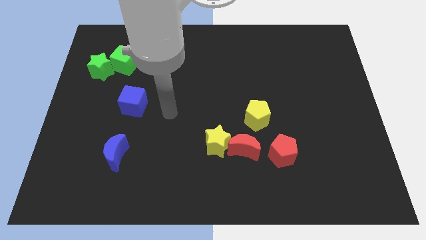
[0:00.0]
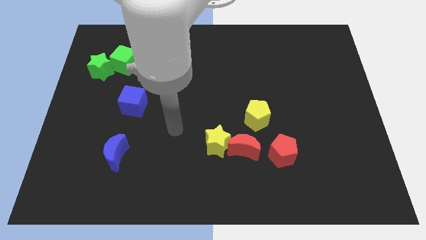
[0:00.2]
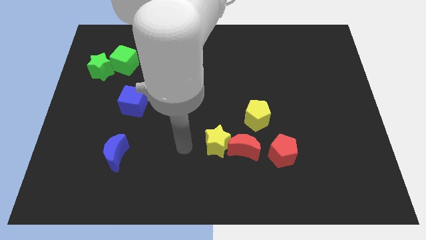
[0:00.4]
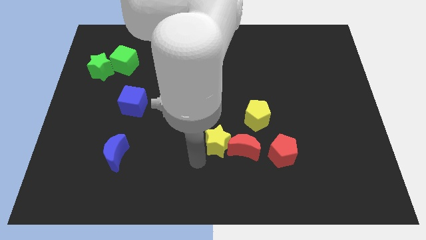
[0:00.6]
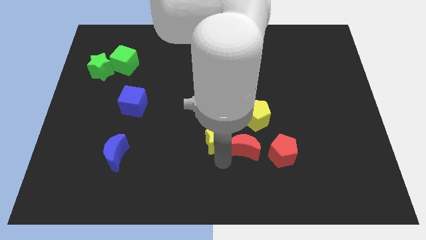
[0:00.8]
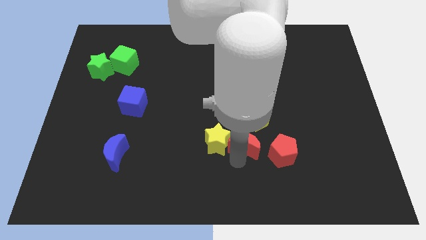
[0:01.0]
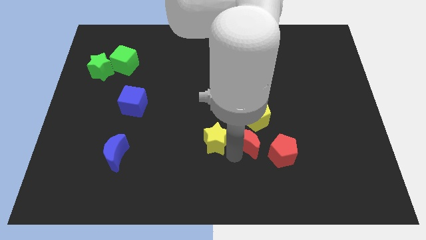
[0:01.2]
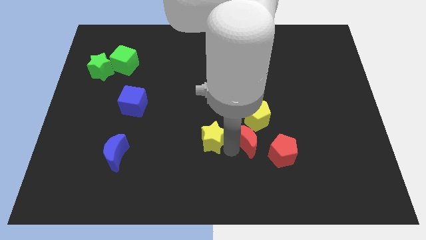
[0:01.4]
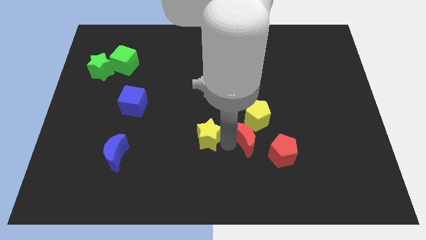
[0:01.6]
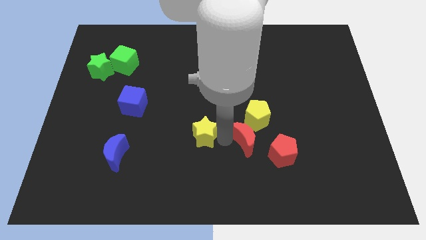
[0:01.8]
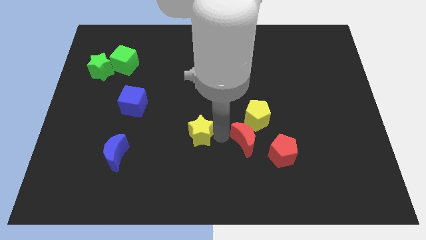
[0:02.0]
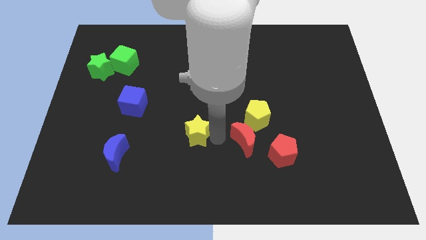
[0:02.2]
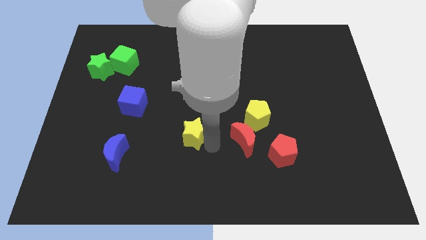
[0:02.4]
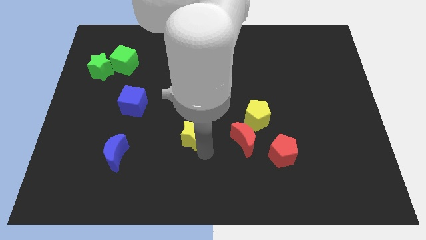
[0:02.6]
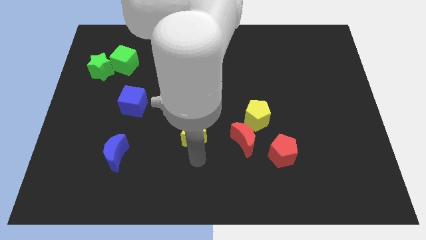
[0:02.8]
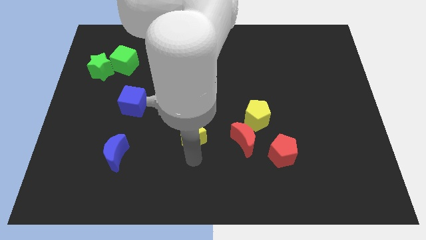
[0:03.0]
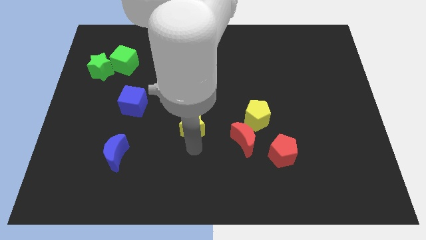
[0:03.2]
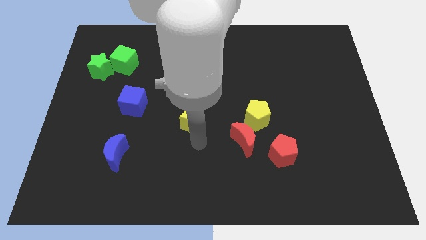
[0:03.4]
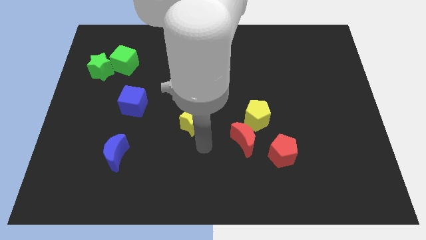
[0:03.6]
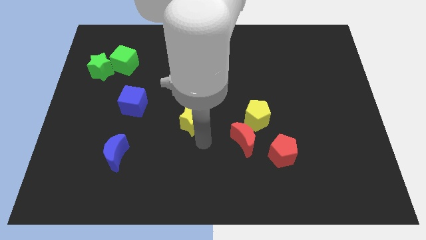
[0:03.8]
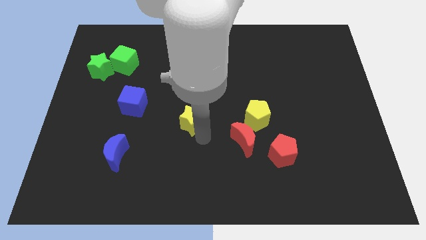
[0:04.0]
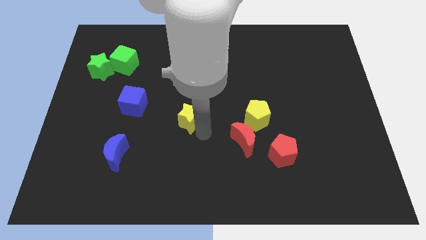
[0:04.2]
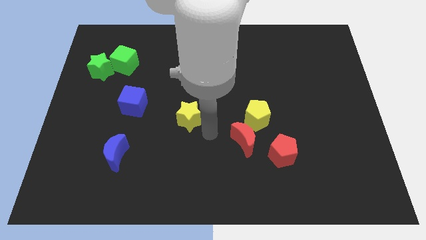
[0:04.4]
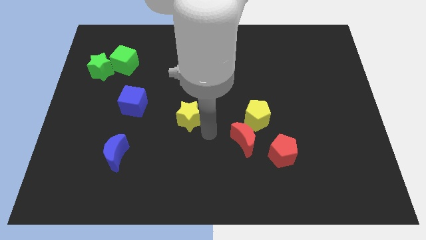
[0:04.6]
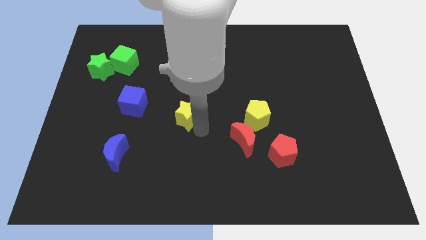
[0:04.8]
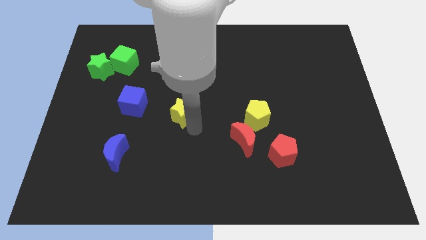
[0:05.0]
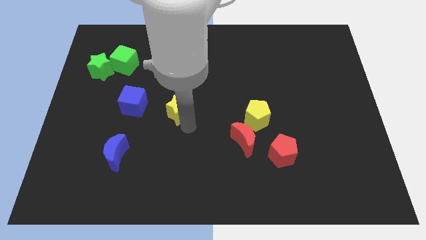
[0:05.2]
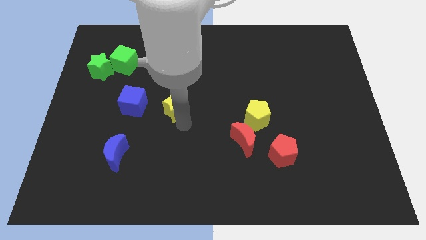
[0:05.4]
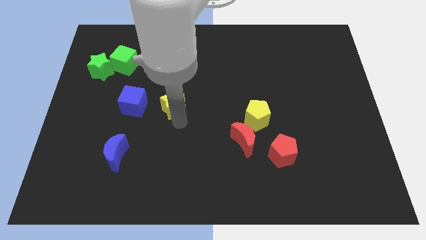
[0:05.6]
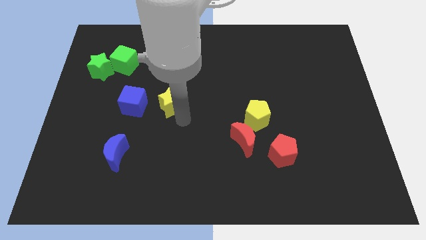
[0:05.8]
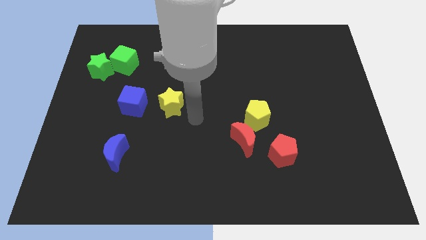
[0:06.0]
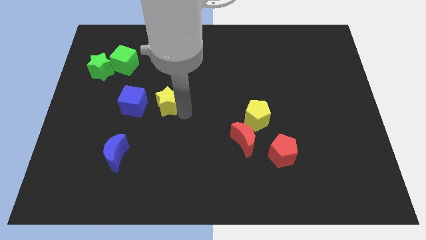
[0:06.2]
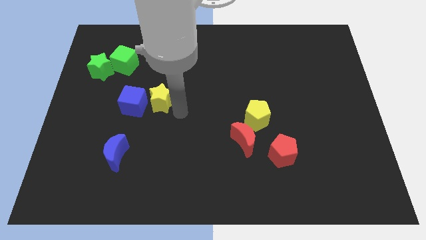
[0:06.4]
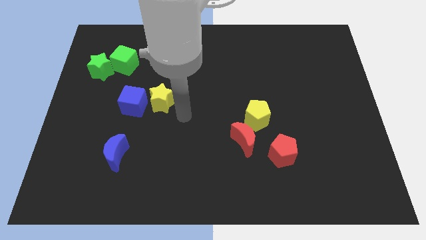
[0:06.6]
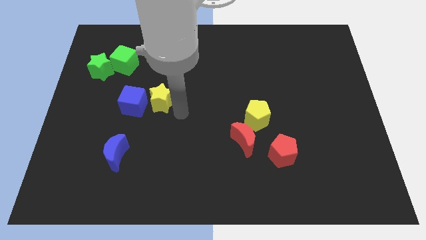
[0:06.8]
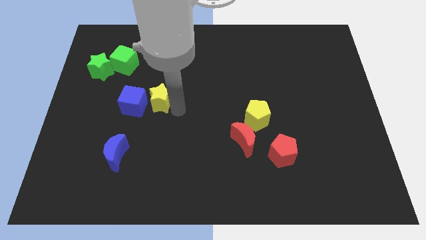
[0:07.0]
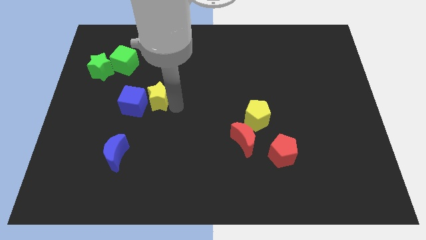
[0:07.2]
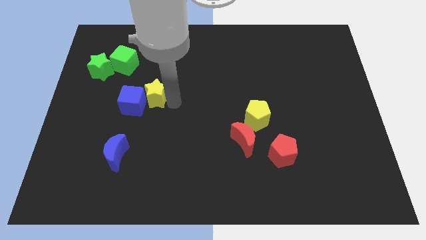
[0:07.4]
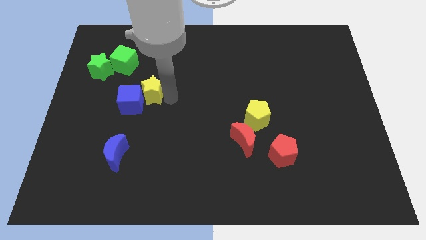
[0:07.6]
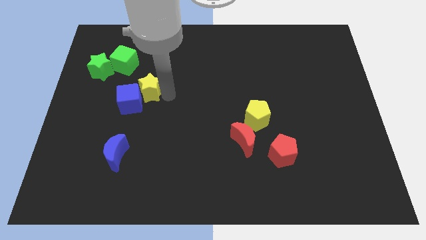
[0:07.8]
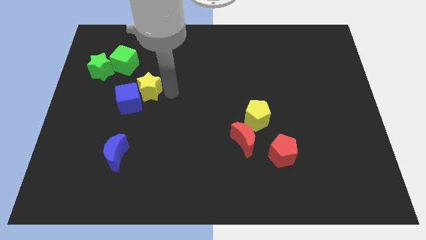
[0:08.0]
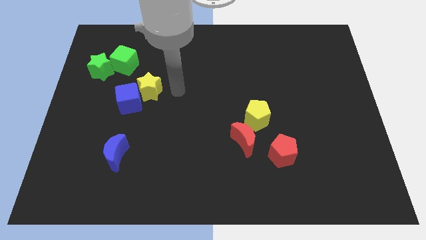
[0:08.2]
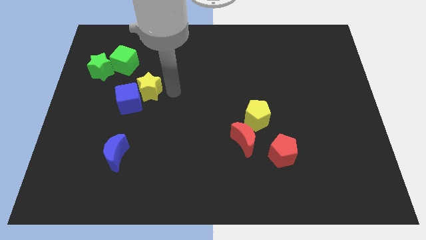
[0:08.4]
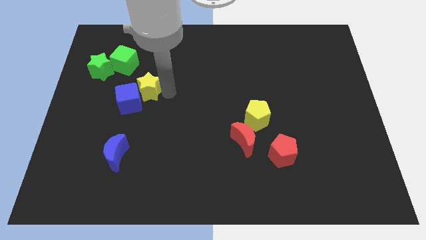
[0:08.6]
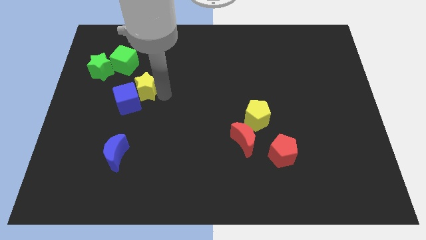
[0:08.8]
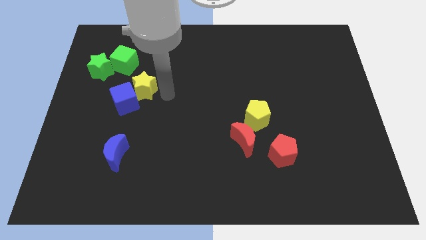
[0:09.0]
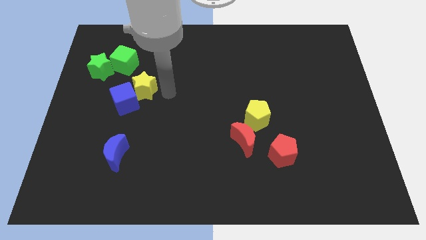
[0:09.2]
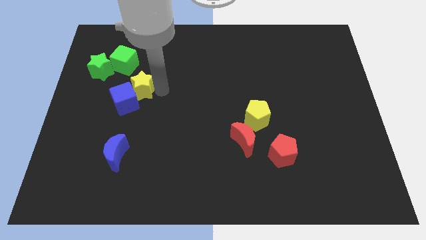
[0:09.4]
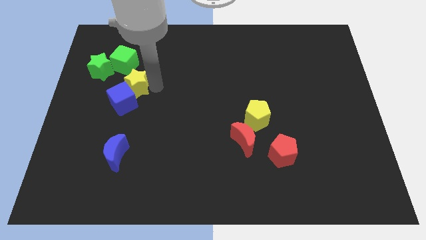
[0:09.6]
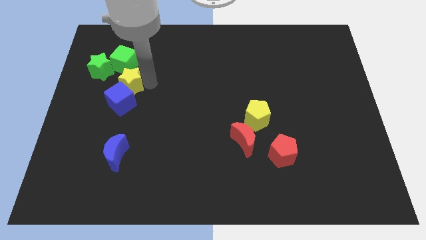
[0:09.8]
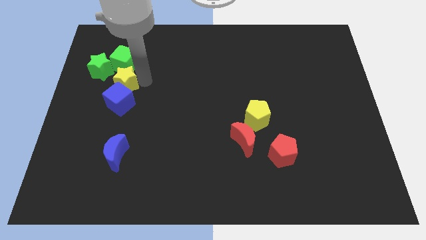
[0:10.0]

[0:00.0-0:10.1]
move the yellow star diagonally up and to the left of the blue cube

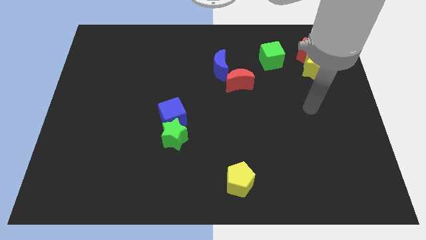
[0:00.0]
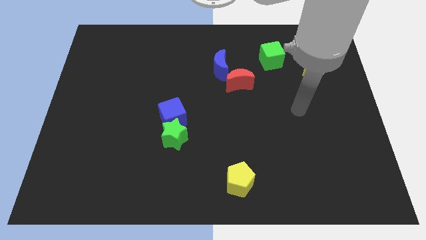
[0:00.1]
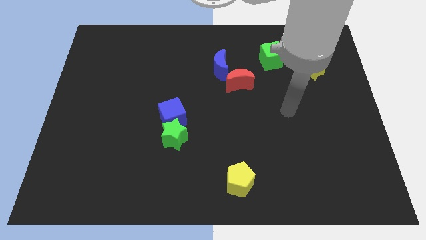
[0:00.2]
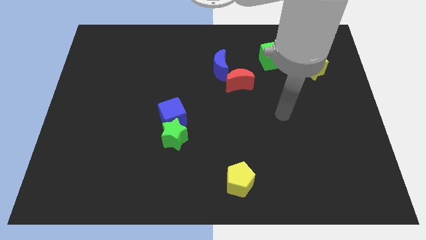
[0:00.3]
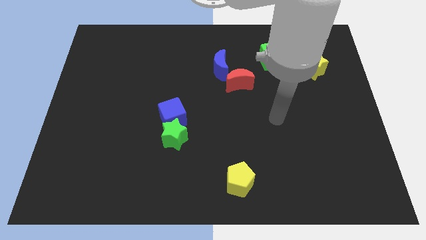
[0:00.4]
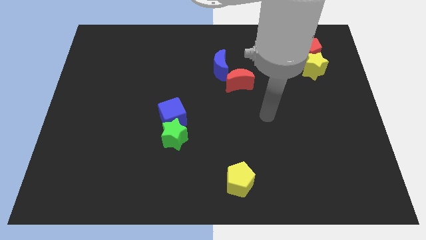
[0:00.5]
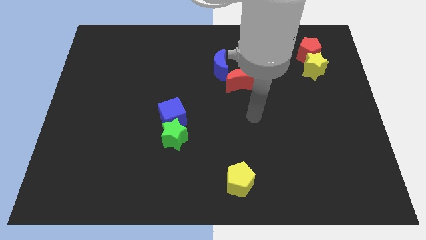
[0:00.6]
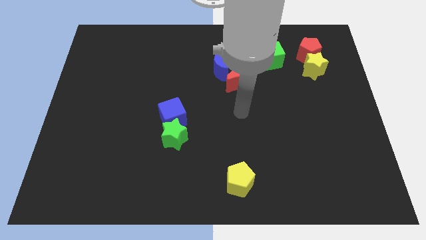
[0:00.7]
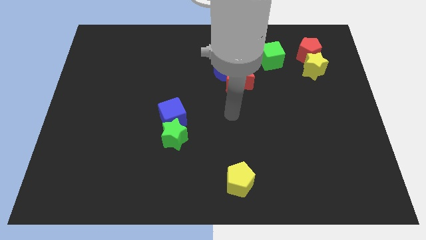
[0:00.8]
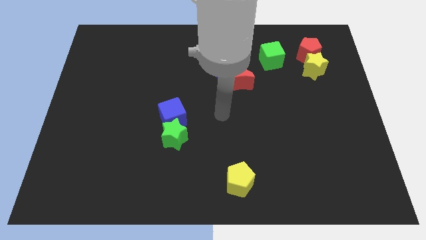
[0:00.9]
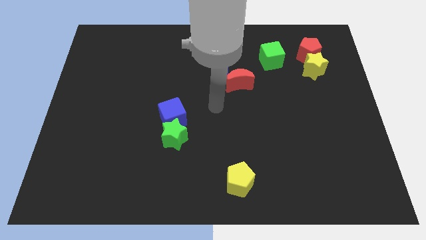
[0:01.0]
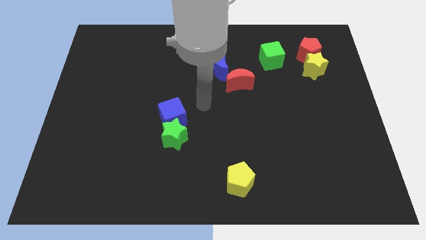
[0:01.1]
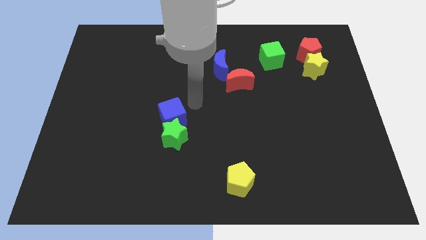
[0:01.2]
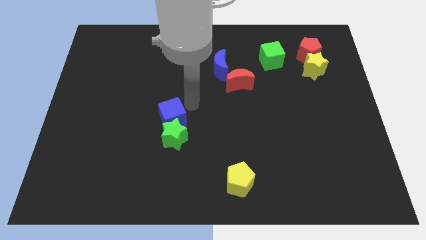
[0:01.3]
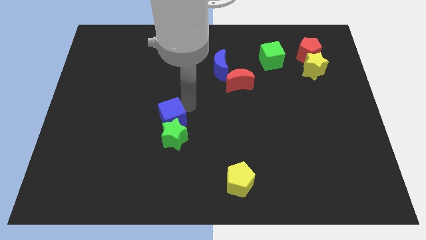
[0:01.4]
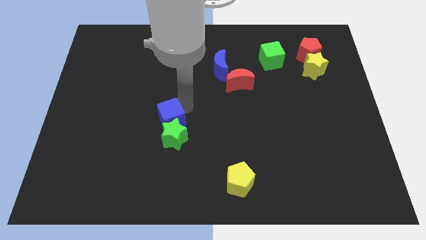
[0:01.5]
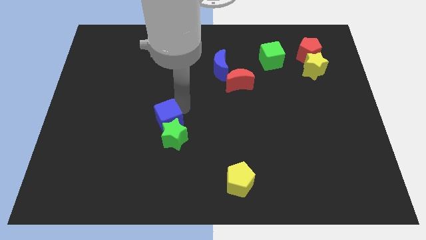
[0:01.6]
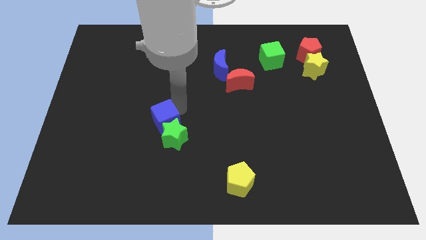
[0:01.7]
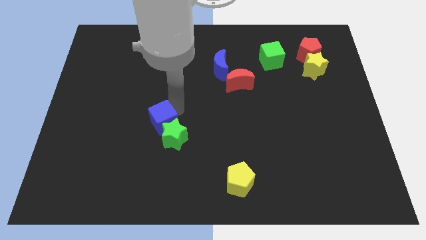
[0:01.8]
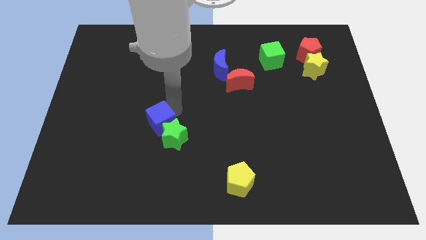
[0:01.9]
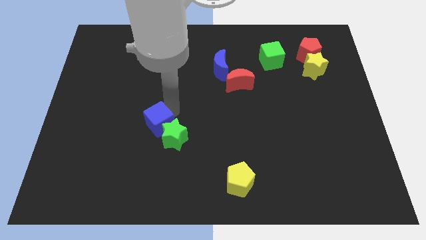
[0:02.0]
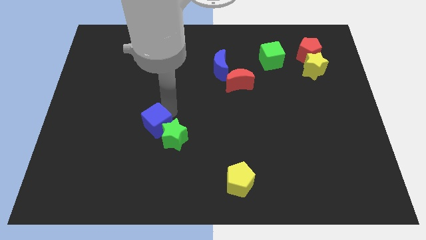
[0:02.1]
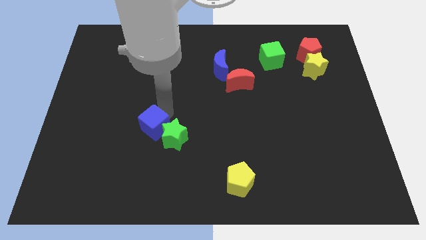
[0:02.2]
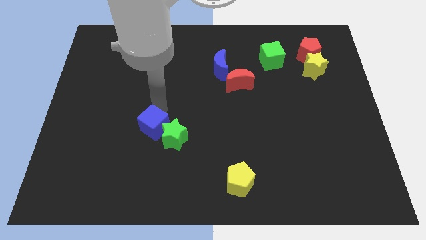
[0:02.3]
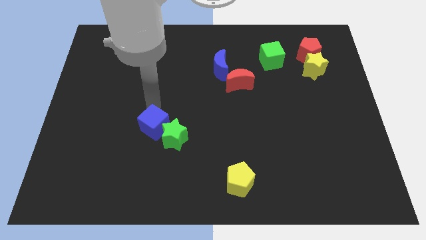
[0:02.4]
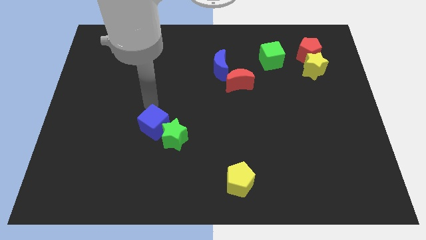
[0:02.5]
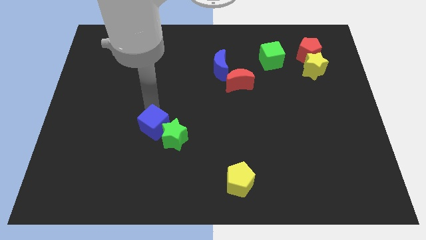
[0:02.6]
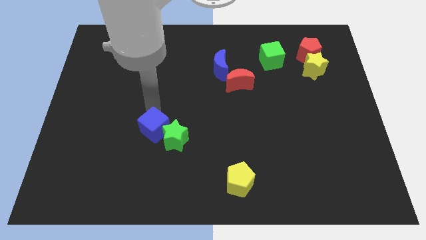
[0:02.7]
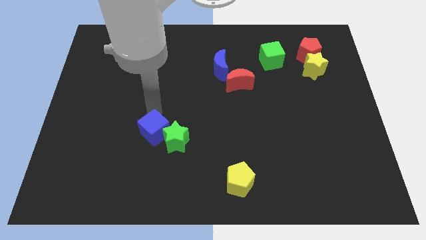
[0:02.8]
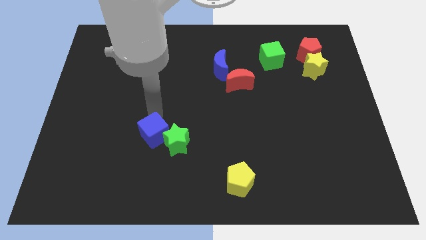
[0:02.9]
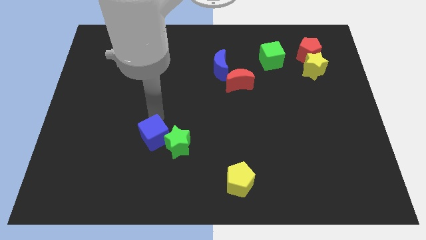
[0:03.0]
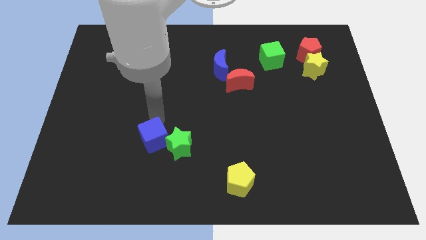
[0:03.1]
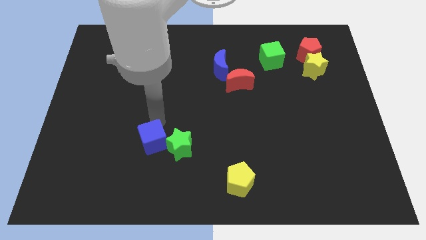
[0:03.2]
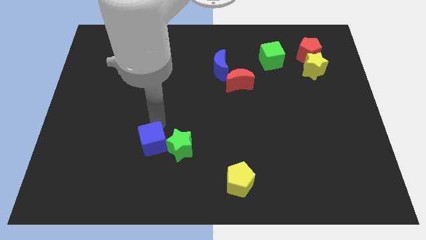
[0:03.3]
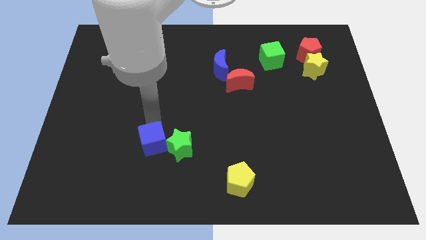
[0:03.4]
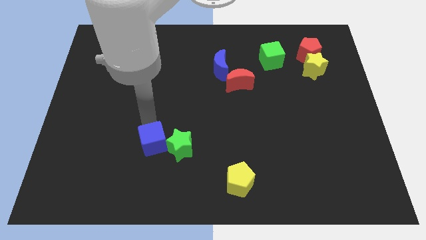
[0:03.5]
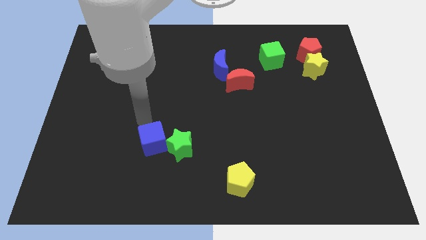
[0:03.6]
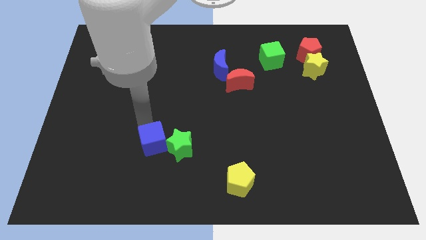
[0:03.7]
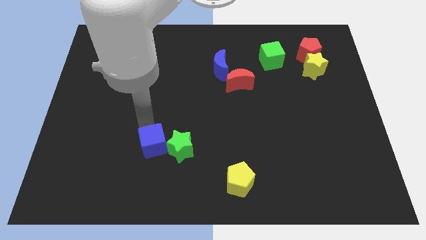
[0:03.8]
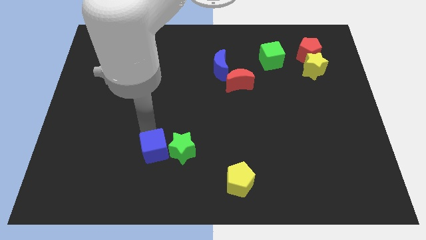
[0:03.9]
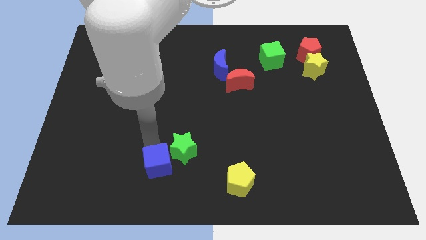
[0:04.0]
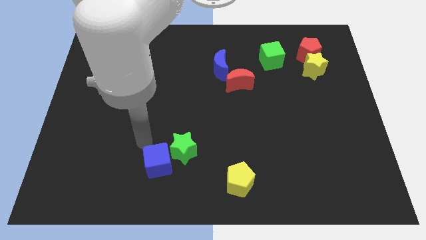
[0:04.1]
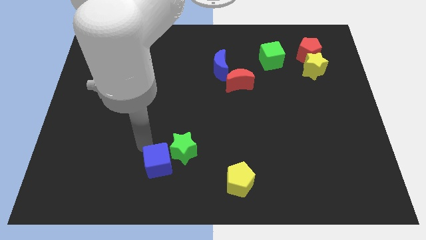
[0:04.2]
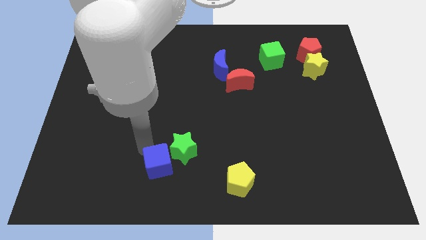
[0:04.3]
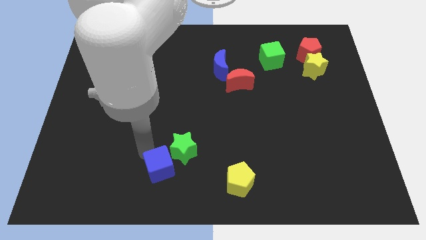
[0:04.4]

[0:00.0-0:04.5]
move the blue cube to the bottom of the green star
